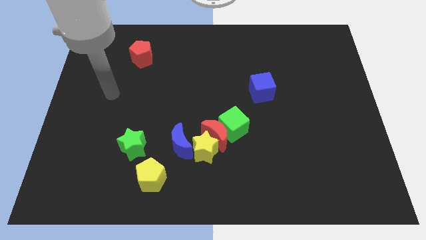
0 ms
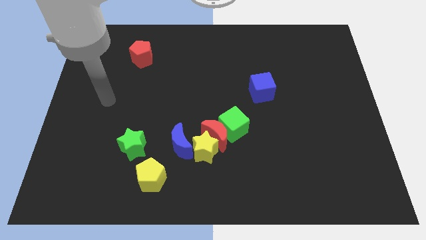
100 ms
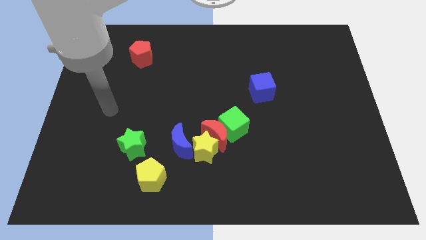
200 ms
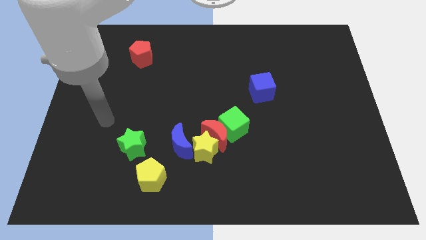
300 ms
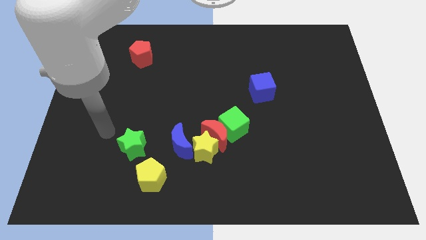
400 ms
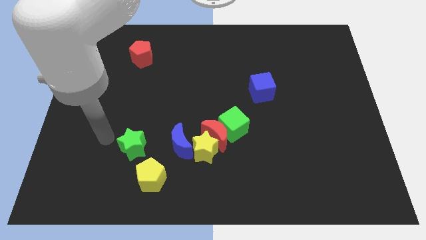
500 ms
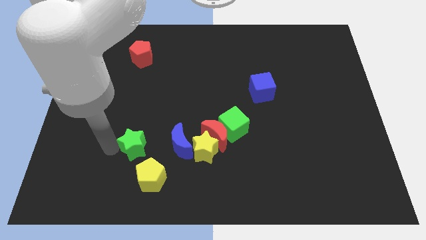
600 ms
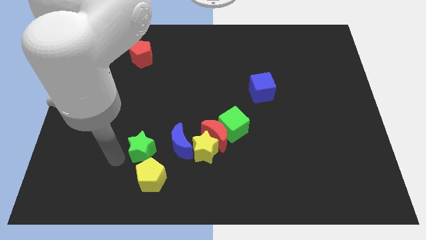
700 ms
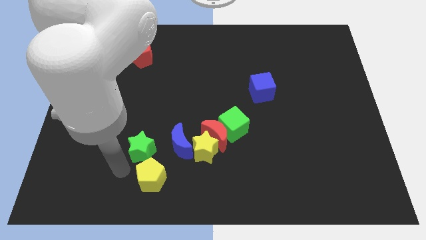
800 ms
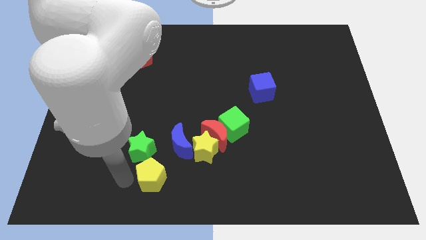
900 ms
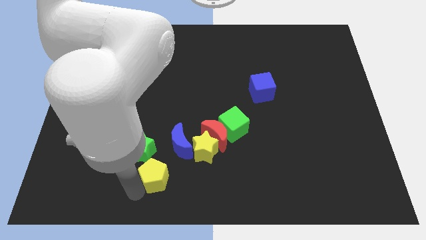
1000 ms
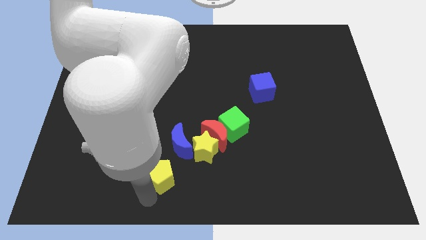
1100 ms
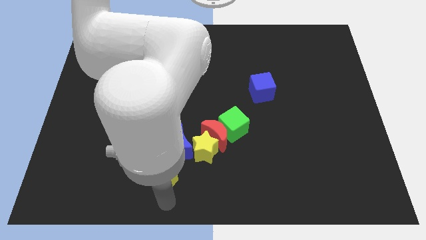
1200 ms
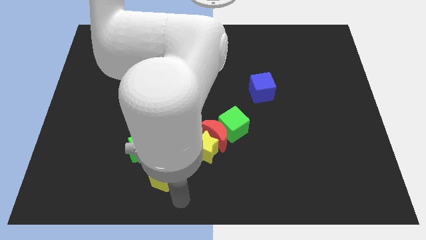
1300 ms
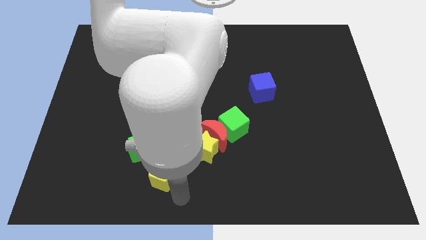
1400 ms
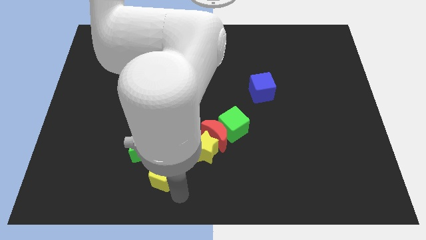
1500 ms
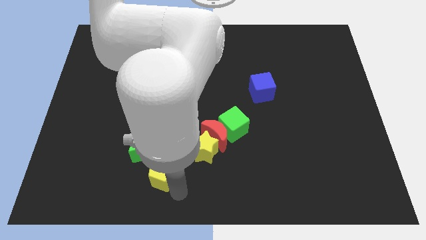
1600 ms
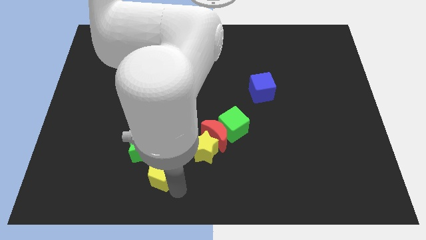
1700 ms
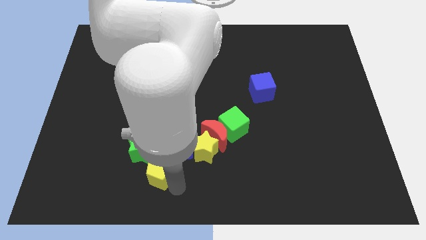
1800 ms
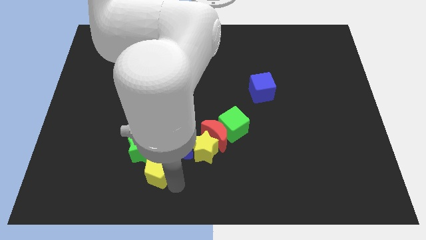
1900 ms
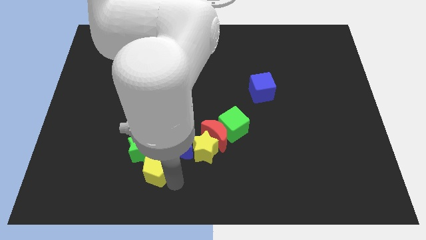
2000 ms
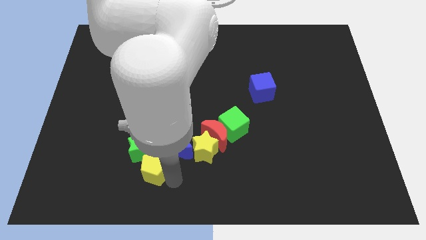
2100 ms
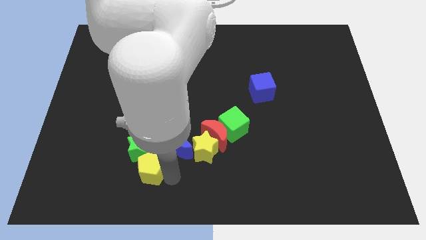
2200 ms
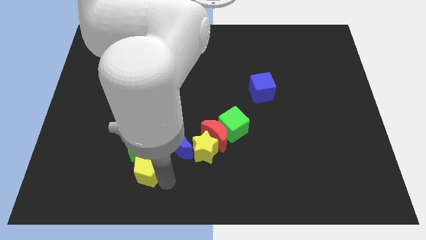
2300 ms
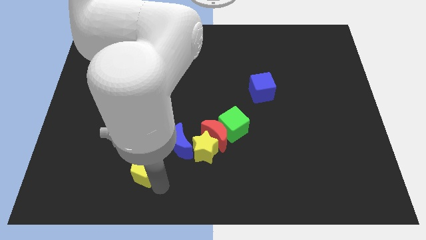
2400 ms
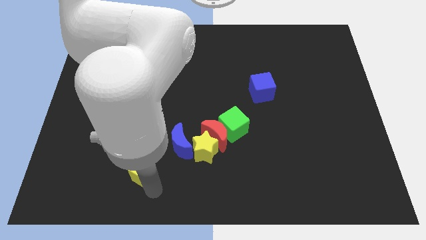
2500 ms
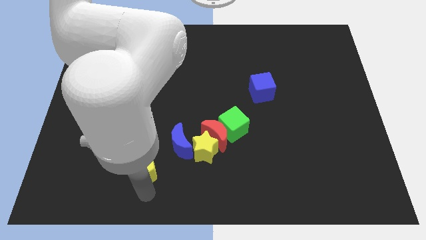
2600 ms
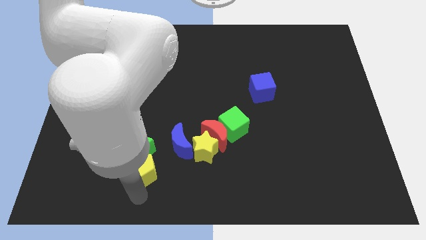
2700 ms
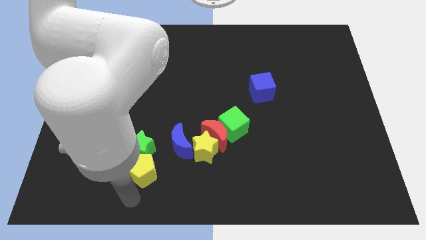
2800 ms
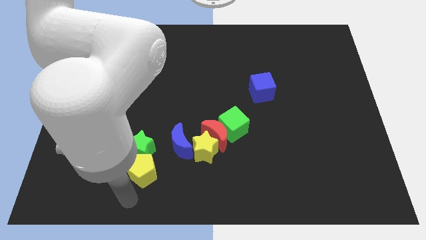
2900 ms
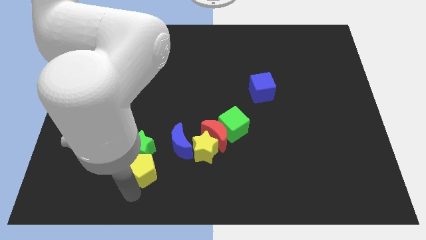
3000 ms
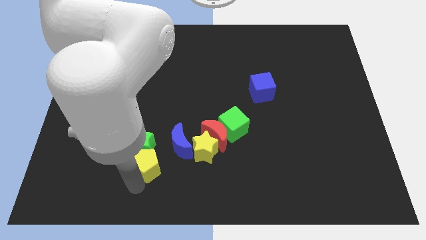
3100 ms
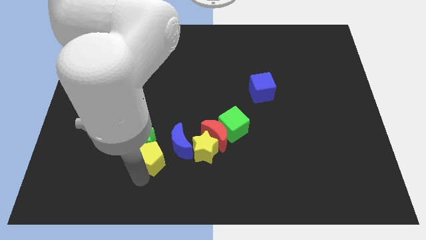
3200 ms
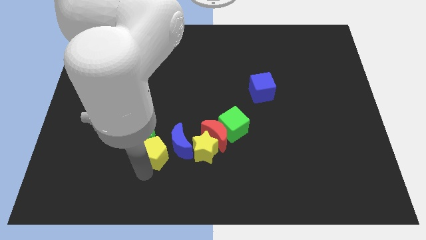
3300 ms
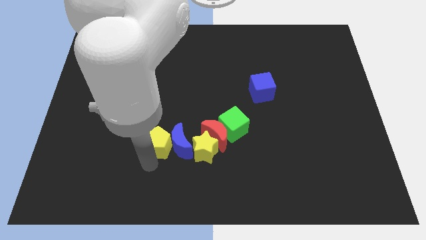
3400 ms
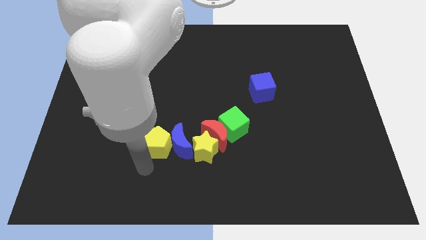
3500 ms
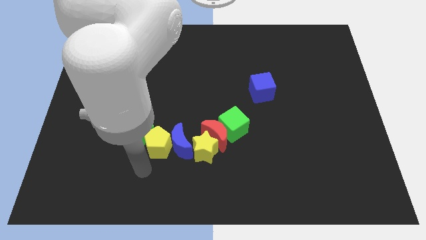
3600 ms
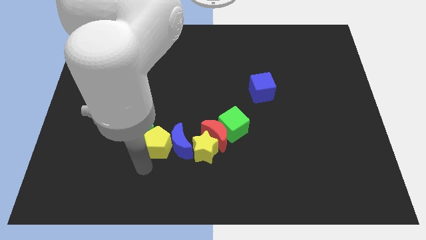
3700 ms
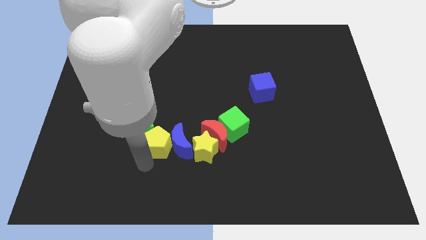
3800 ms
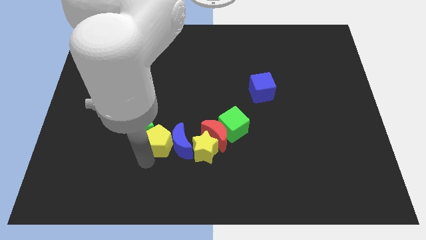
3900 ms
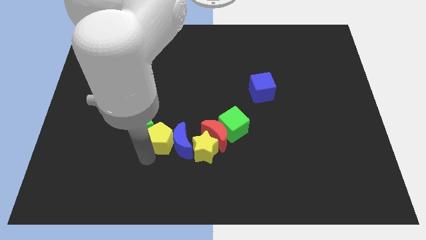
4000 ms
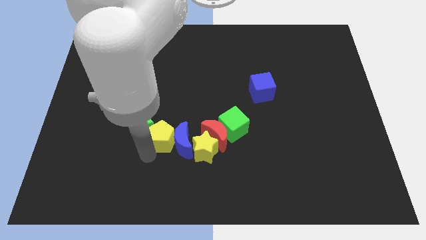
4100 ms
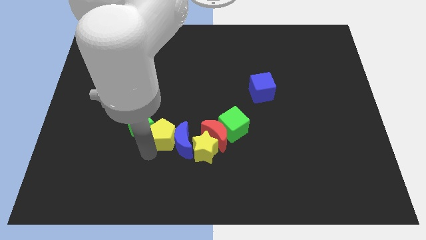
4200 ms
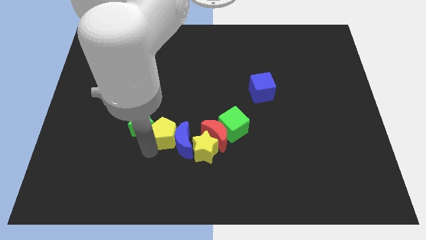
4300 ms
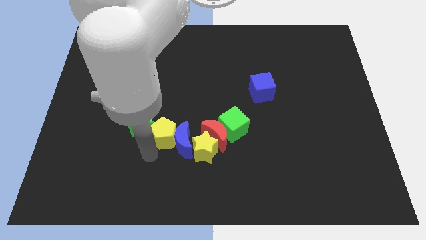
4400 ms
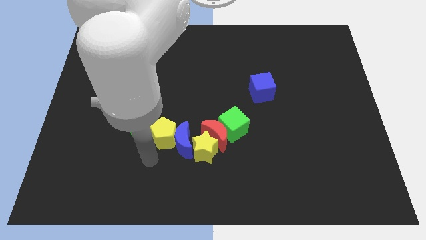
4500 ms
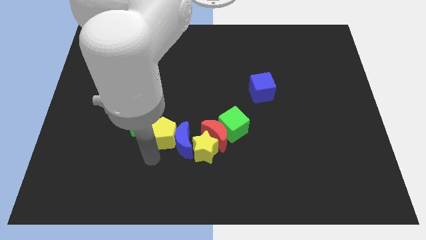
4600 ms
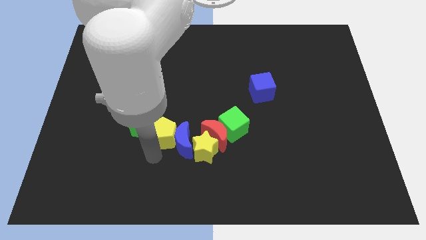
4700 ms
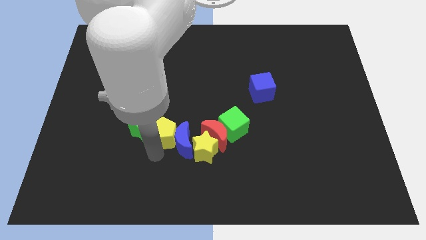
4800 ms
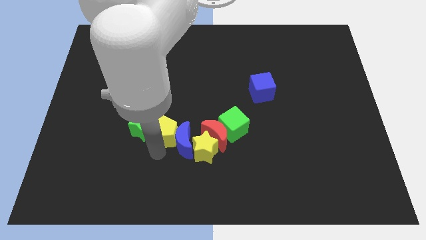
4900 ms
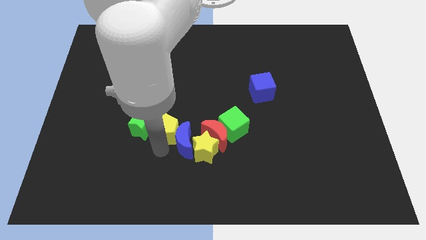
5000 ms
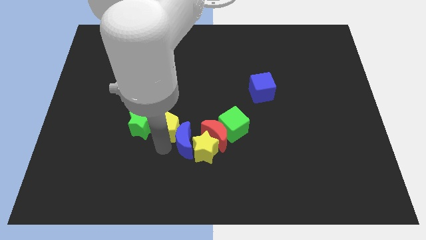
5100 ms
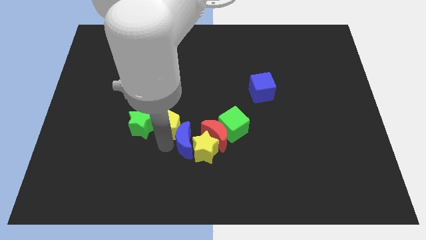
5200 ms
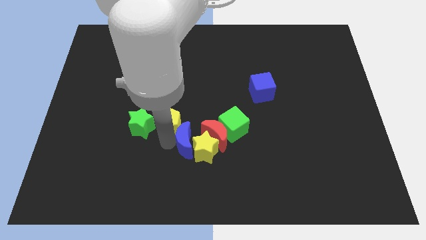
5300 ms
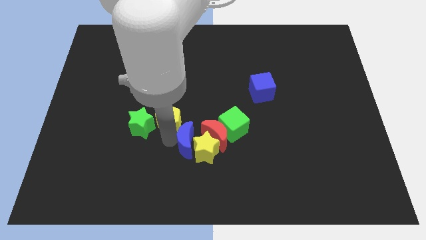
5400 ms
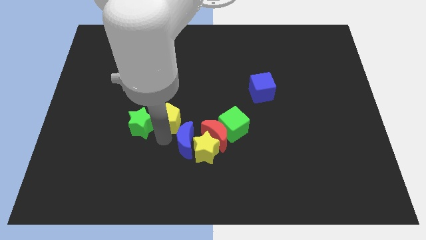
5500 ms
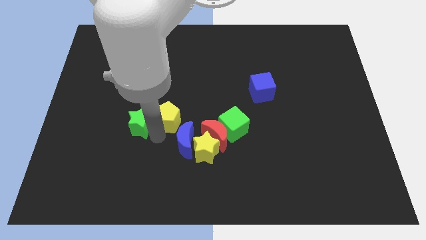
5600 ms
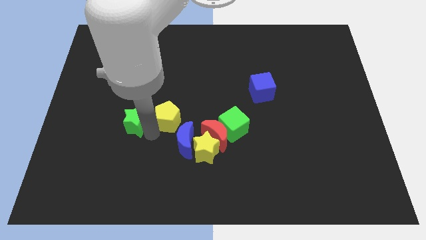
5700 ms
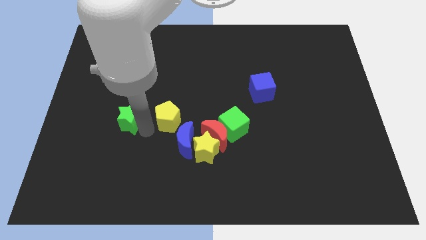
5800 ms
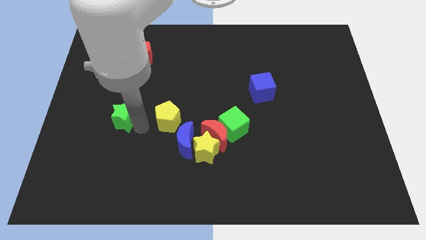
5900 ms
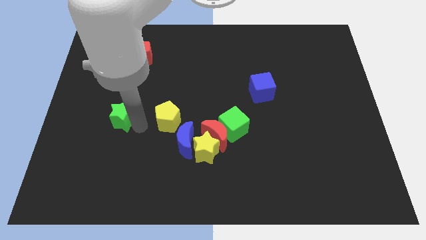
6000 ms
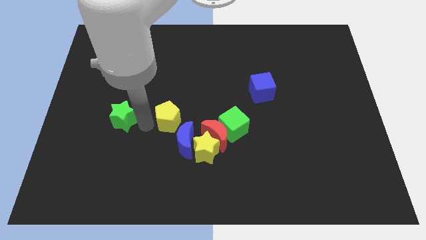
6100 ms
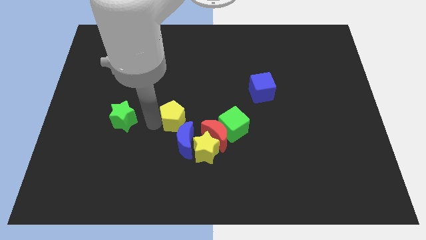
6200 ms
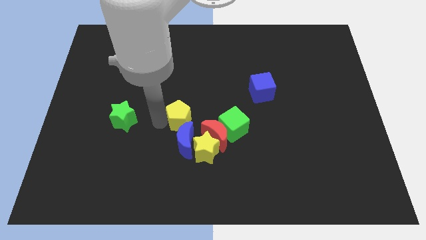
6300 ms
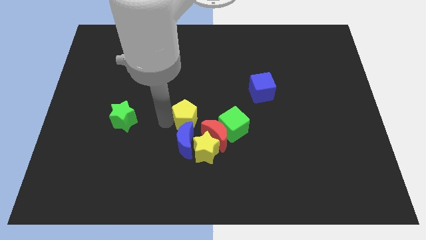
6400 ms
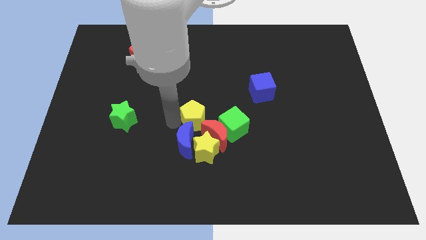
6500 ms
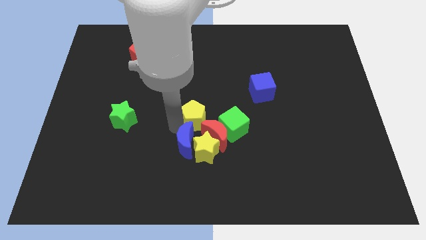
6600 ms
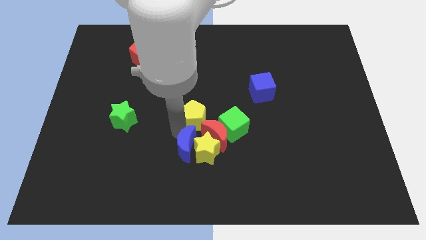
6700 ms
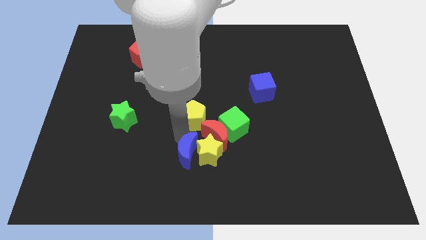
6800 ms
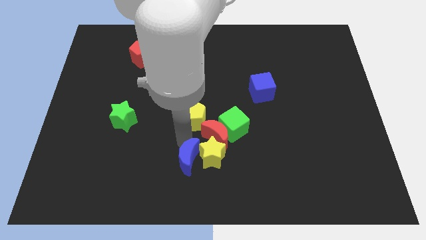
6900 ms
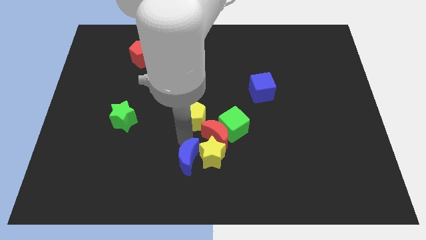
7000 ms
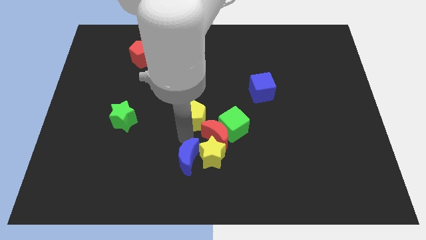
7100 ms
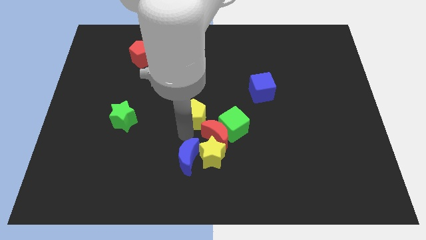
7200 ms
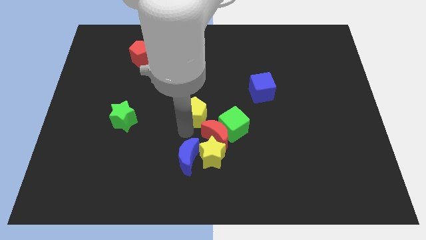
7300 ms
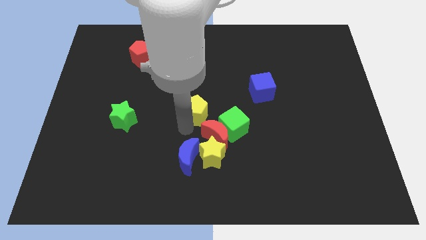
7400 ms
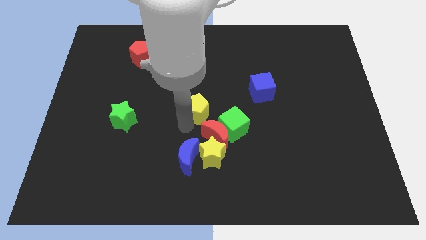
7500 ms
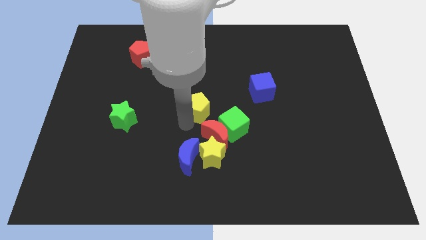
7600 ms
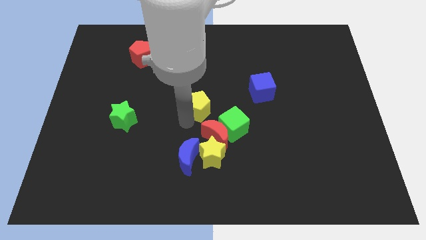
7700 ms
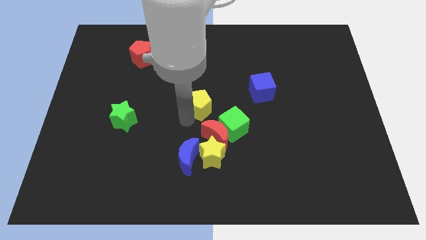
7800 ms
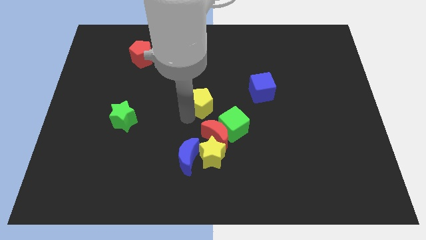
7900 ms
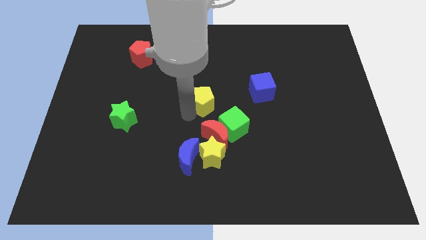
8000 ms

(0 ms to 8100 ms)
put the yellow pentagon just left of the blue cube
